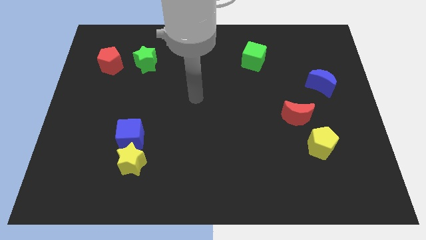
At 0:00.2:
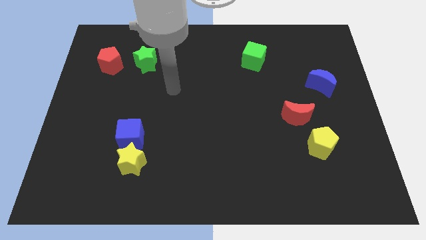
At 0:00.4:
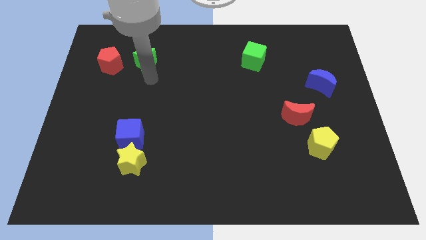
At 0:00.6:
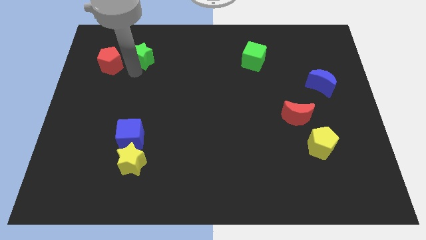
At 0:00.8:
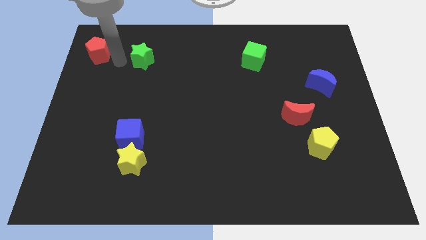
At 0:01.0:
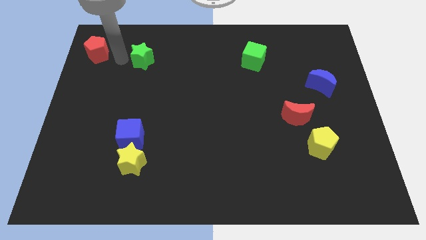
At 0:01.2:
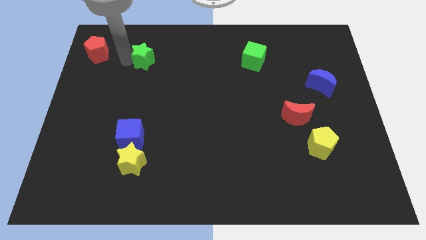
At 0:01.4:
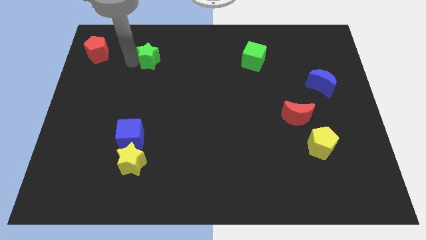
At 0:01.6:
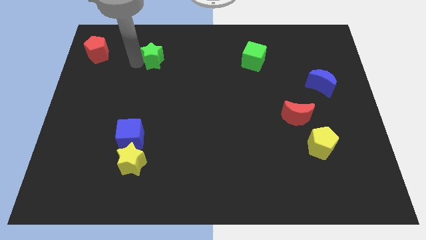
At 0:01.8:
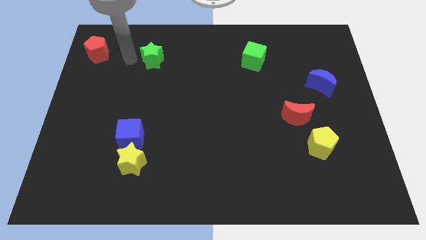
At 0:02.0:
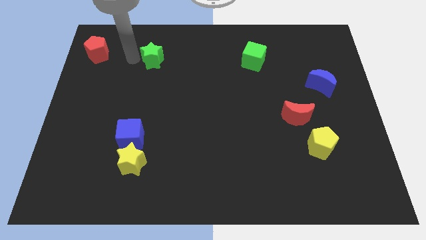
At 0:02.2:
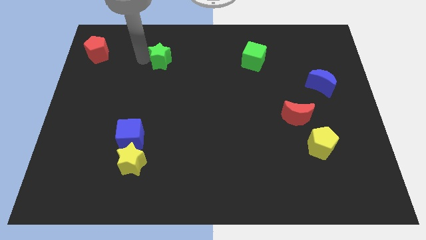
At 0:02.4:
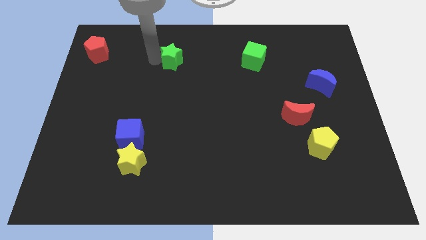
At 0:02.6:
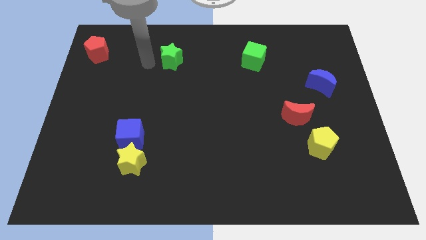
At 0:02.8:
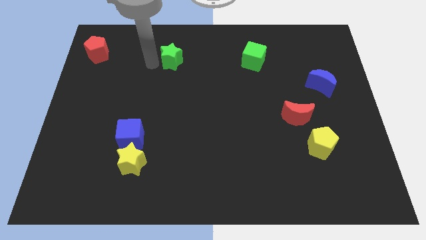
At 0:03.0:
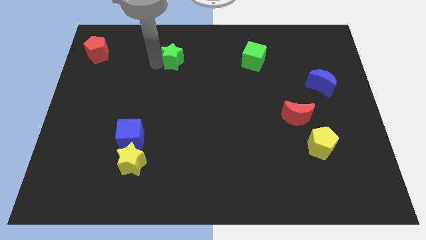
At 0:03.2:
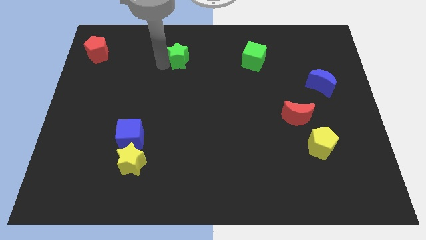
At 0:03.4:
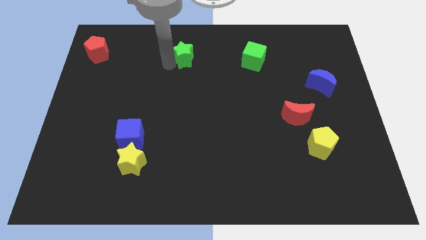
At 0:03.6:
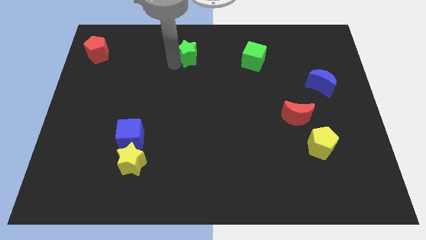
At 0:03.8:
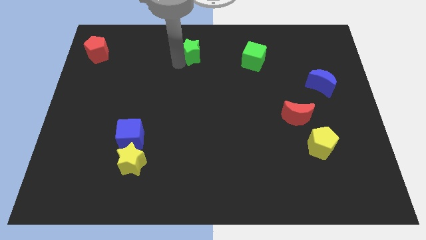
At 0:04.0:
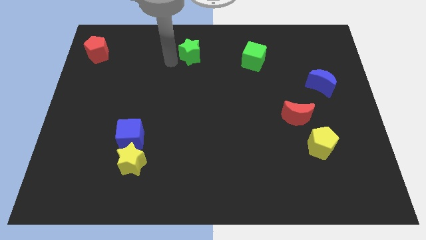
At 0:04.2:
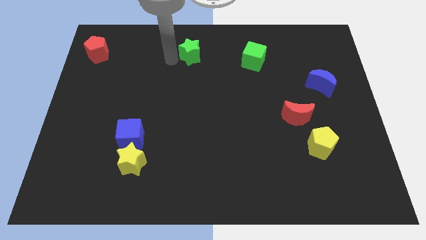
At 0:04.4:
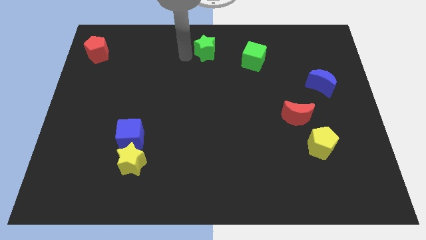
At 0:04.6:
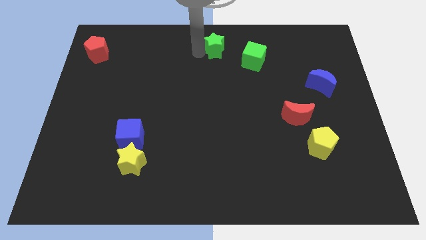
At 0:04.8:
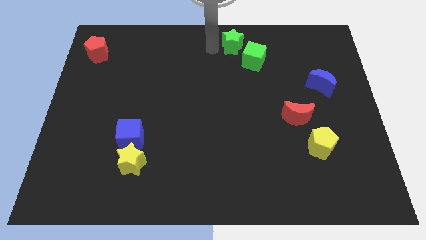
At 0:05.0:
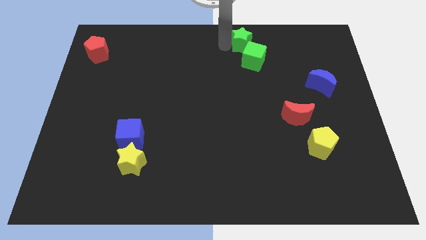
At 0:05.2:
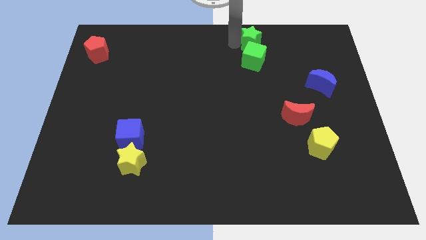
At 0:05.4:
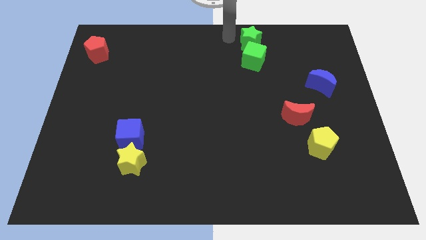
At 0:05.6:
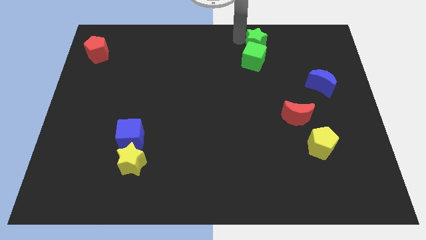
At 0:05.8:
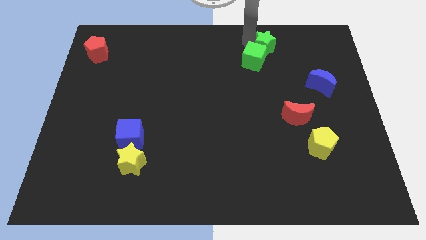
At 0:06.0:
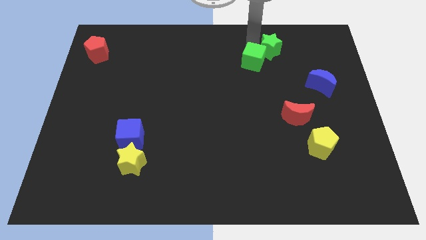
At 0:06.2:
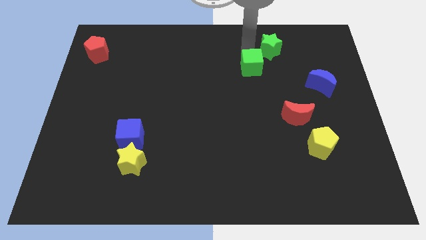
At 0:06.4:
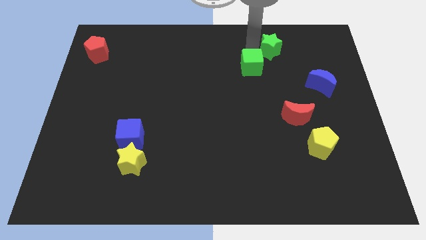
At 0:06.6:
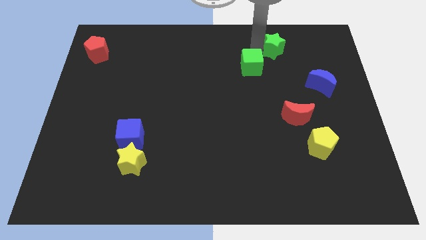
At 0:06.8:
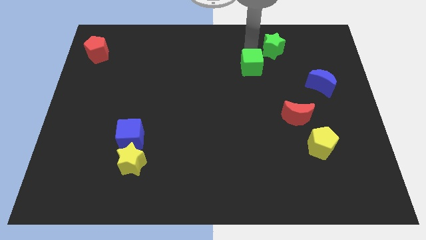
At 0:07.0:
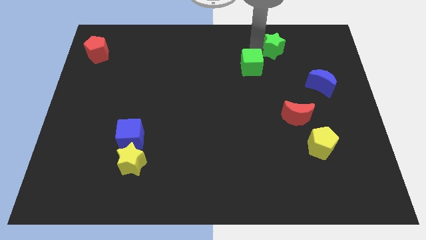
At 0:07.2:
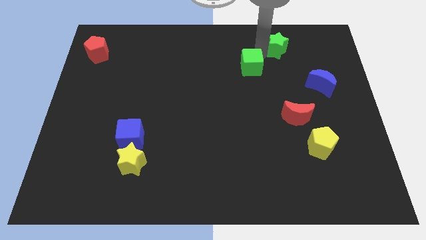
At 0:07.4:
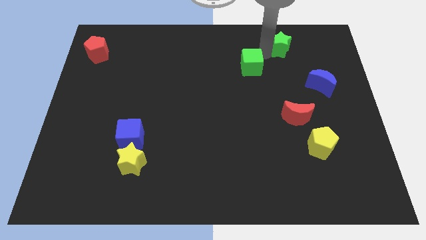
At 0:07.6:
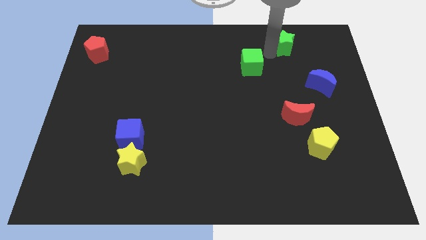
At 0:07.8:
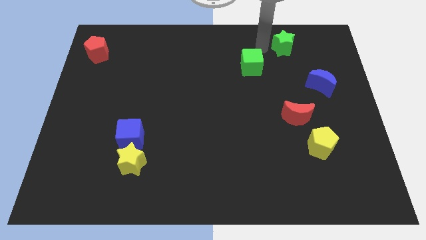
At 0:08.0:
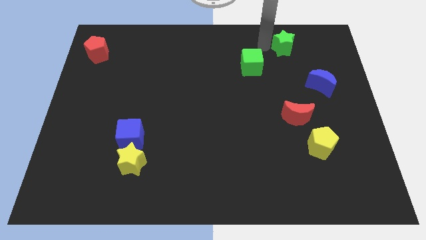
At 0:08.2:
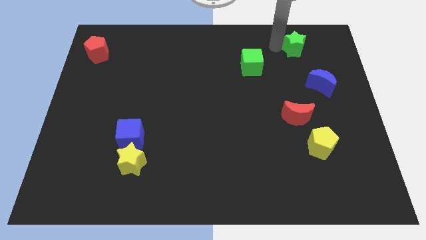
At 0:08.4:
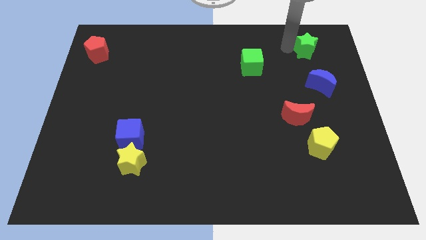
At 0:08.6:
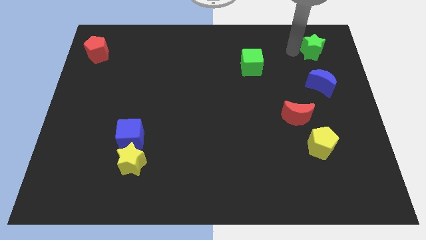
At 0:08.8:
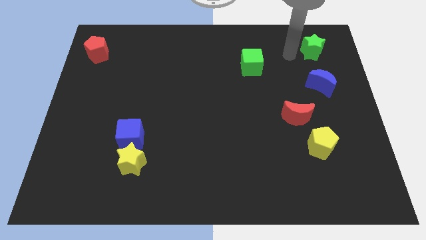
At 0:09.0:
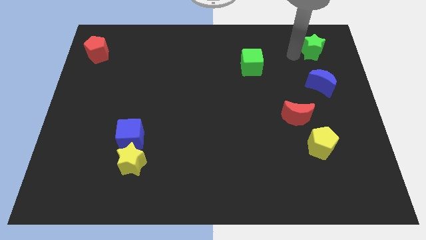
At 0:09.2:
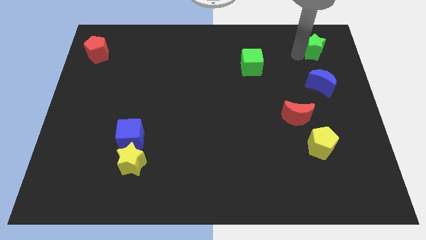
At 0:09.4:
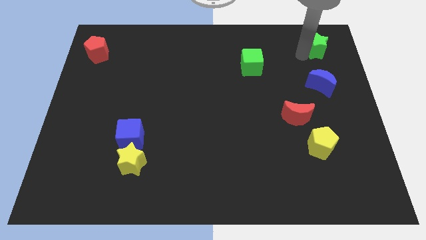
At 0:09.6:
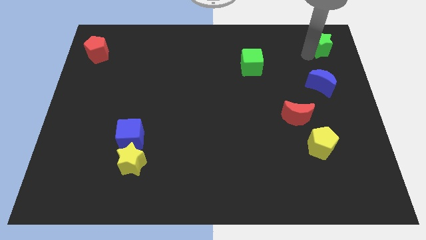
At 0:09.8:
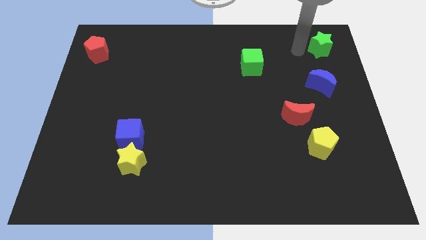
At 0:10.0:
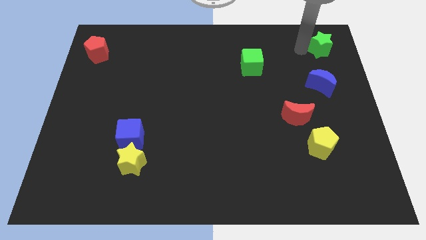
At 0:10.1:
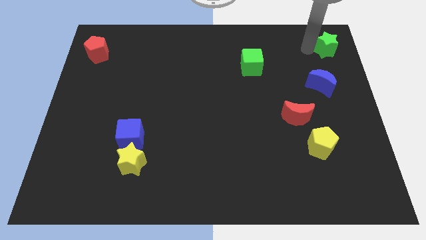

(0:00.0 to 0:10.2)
slide the green star to the top right
